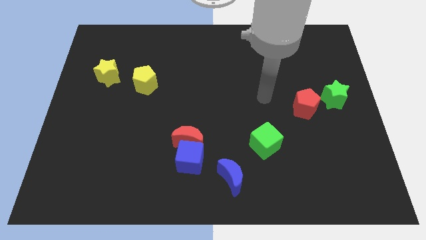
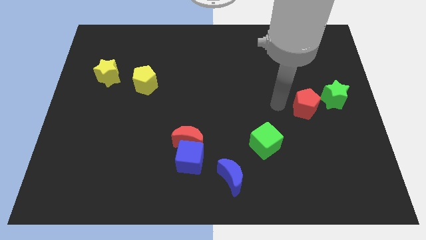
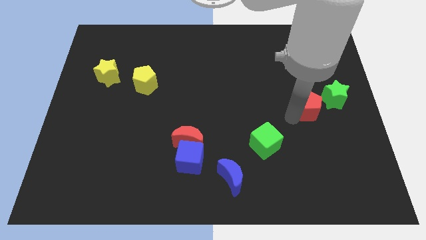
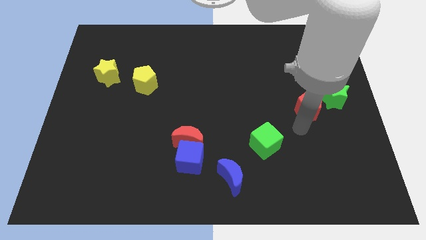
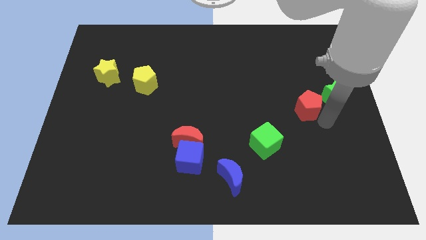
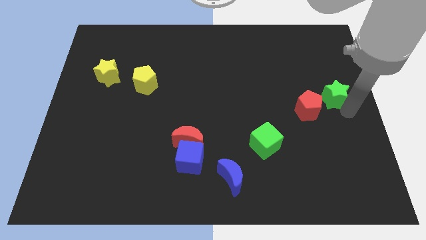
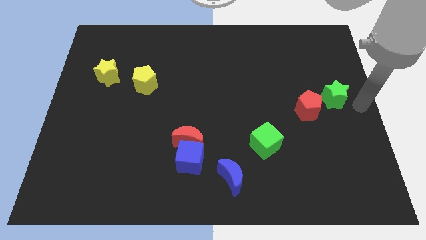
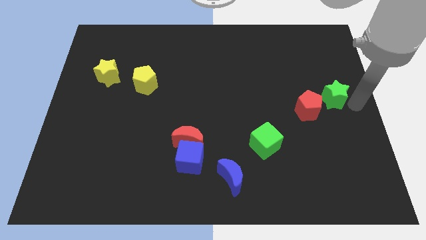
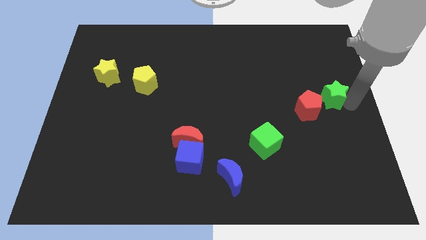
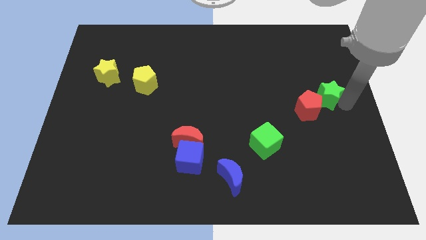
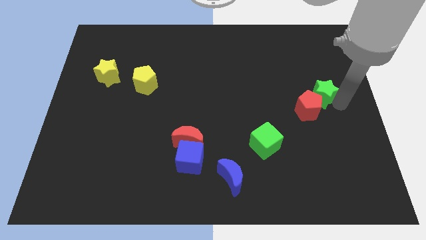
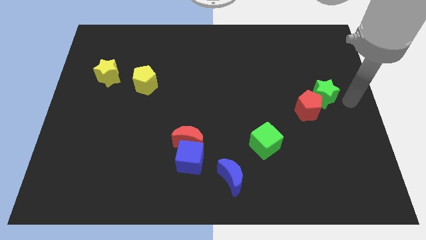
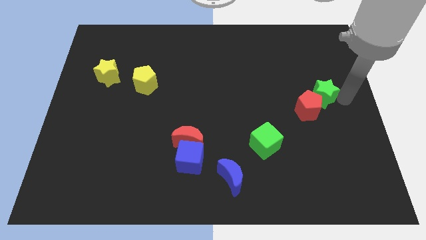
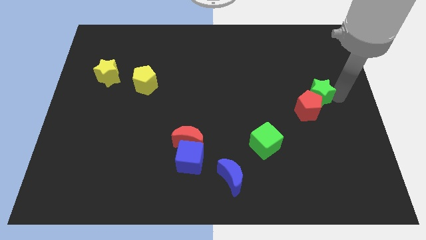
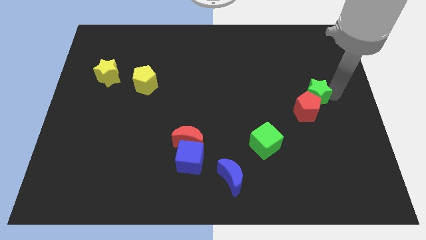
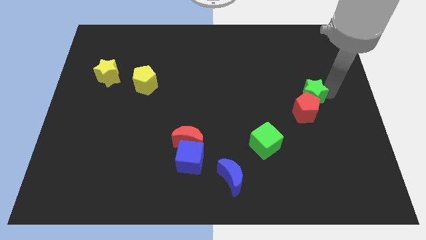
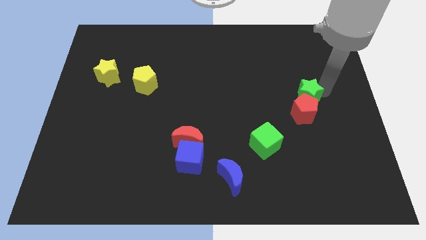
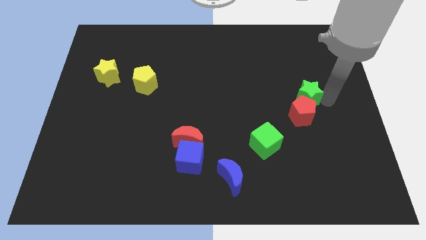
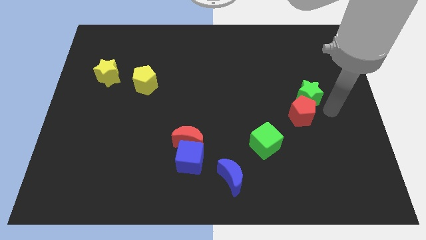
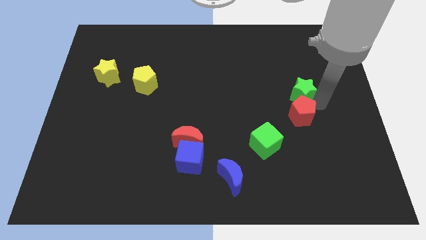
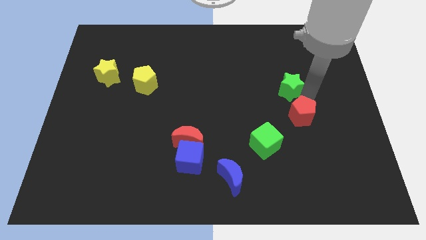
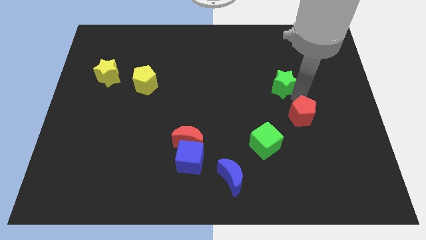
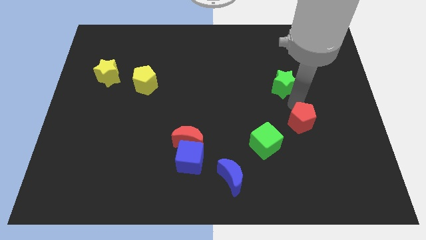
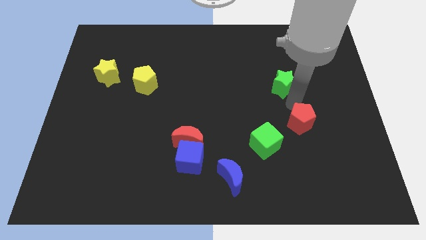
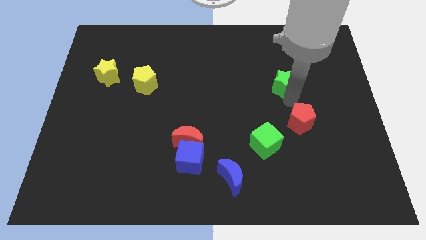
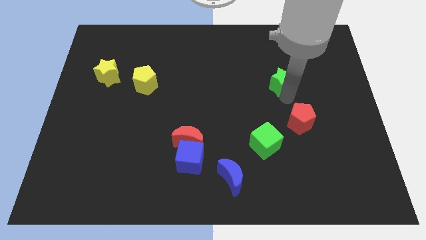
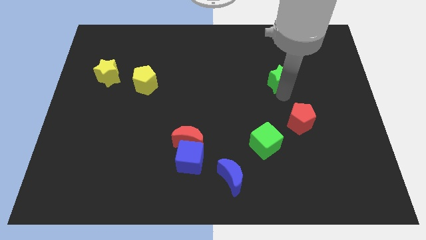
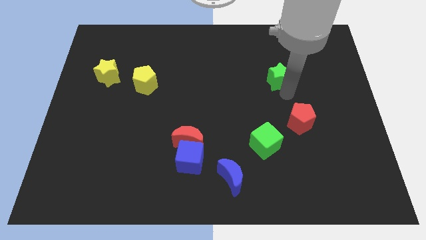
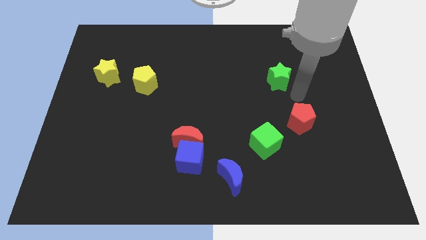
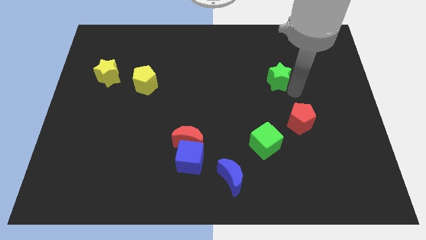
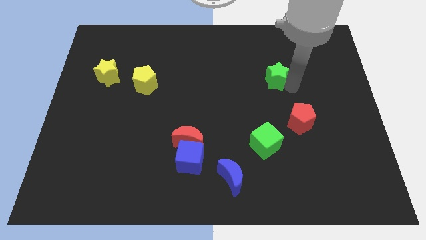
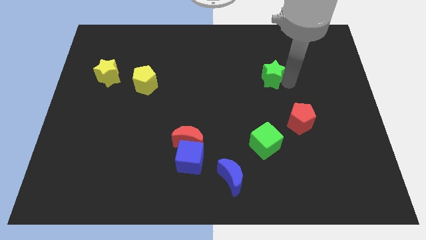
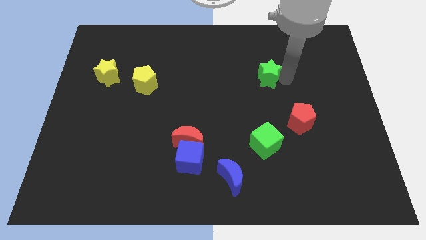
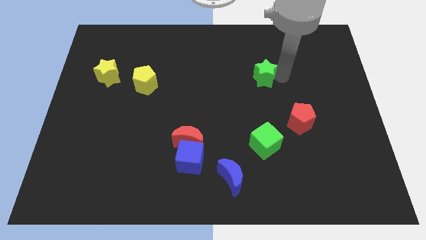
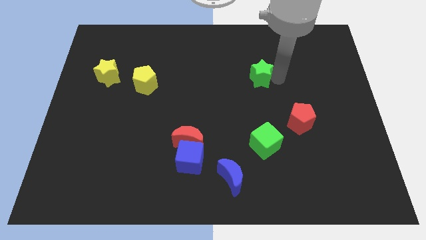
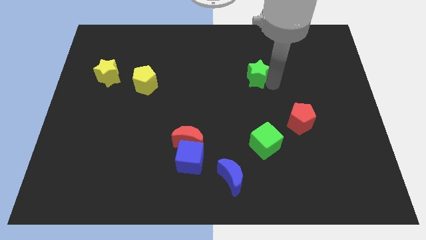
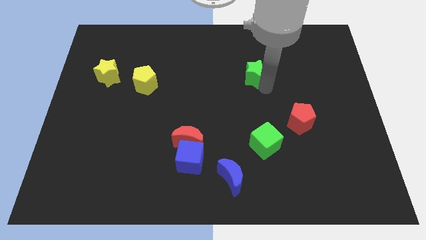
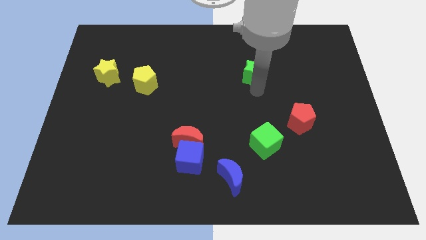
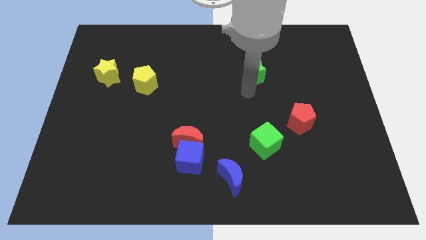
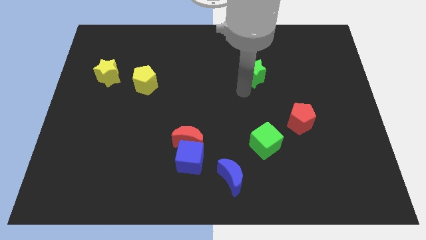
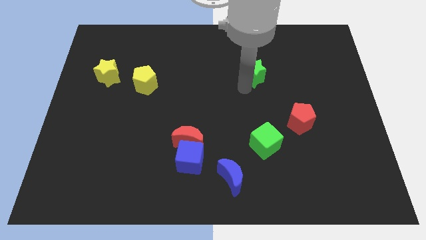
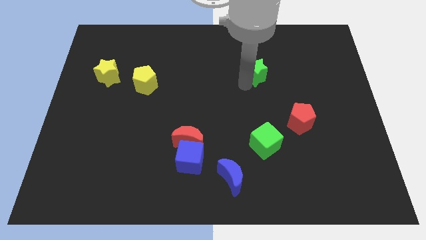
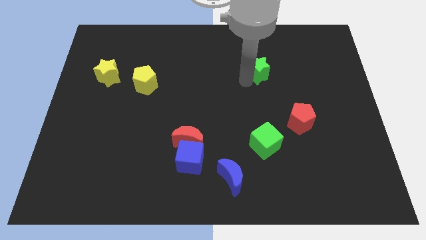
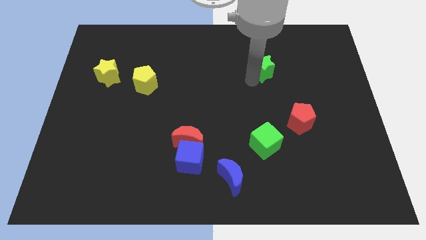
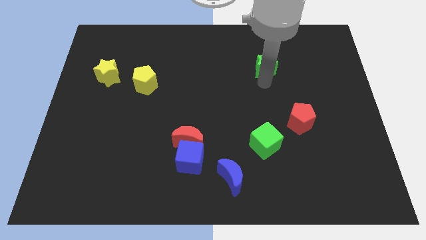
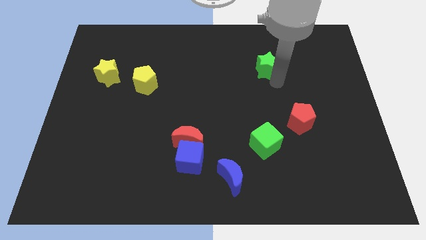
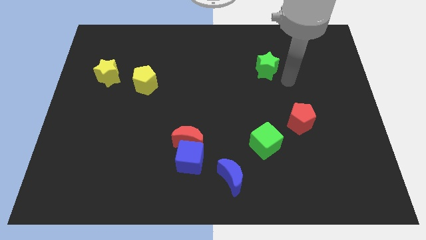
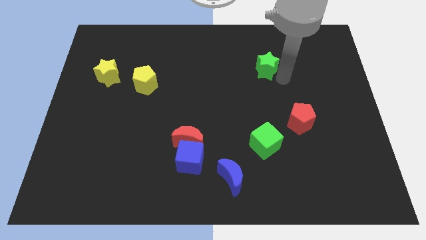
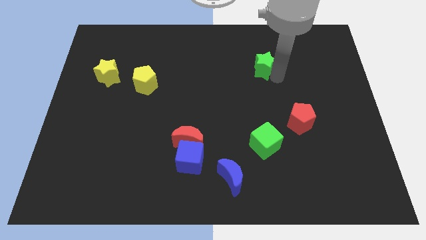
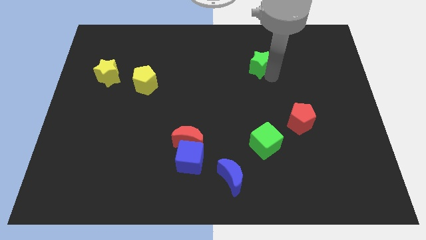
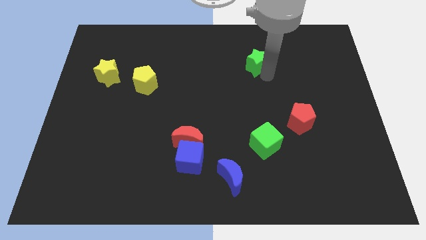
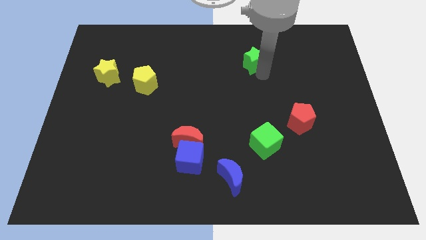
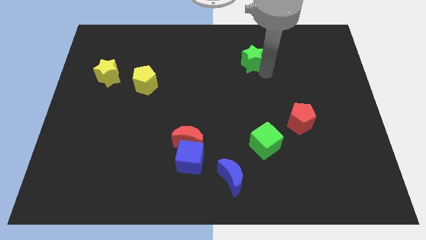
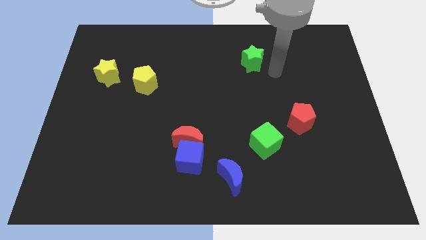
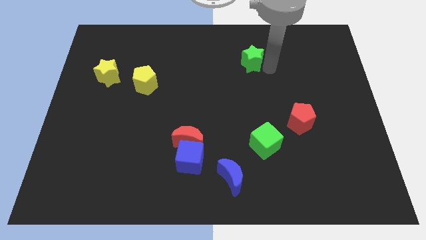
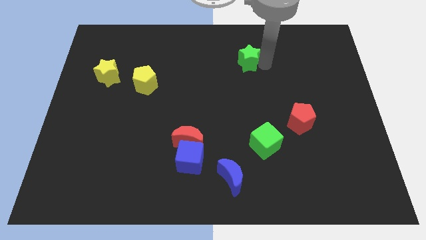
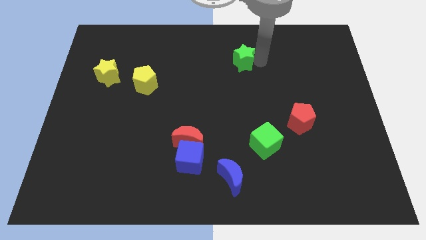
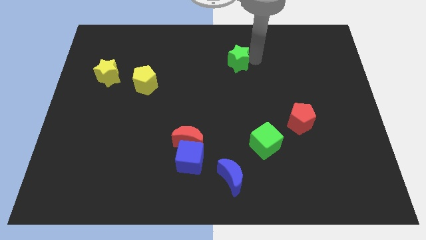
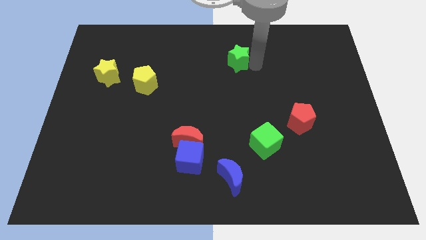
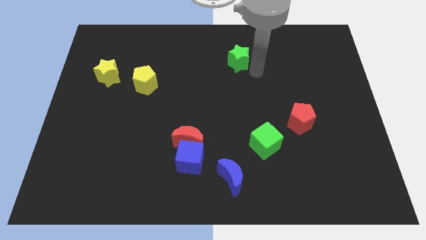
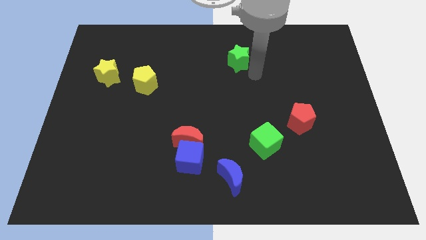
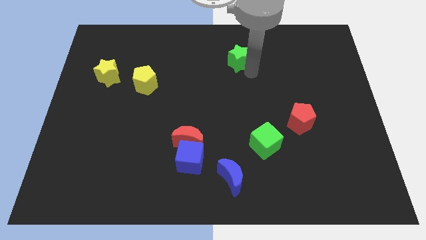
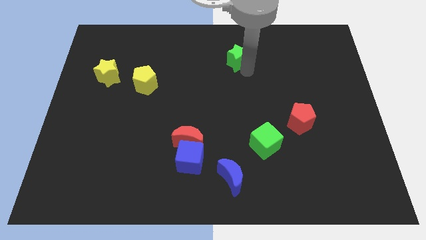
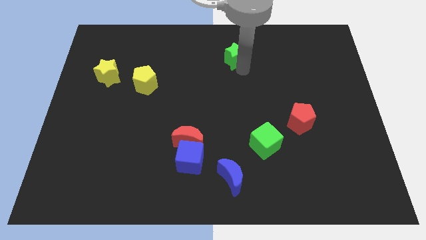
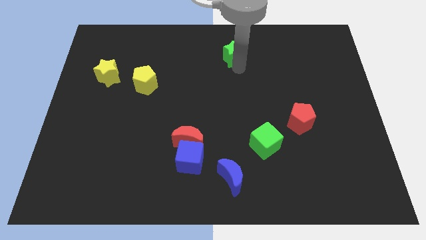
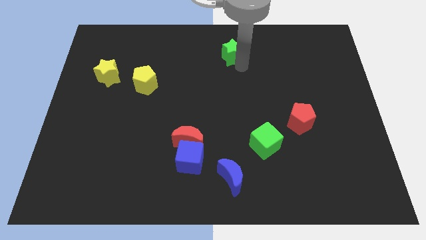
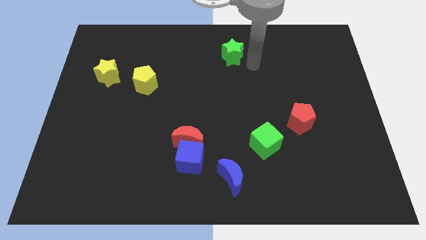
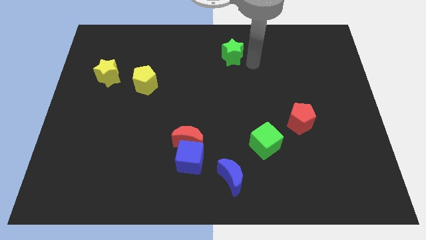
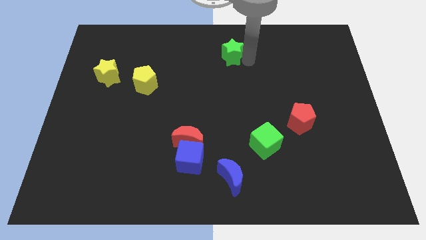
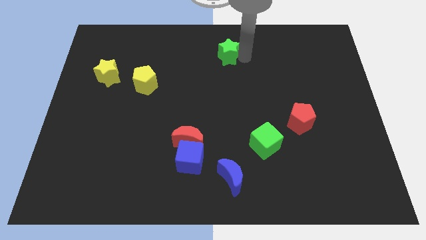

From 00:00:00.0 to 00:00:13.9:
put the green star to the towards your base
